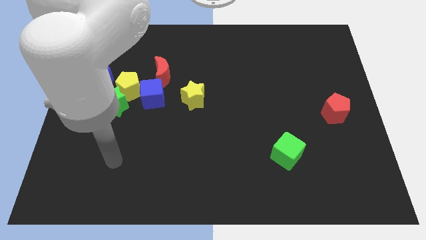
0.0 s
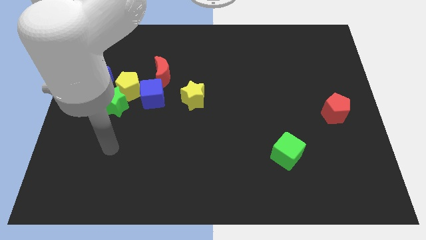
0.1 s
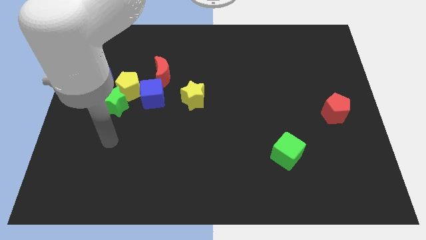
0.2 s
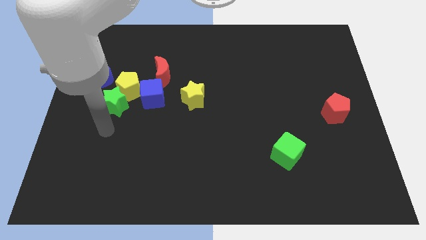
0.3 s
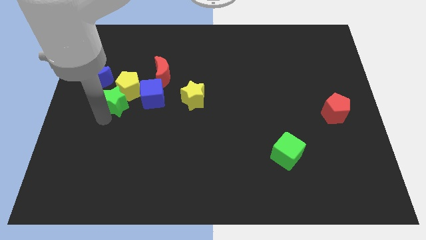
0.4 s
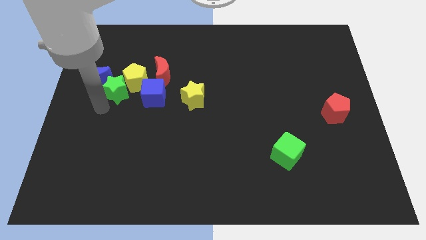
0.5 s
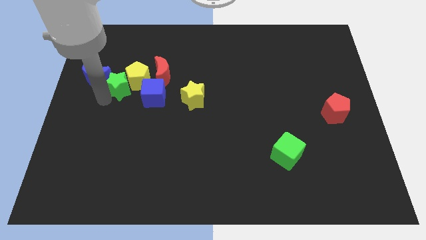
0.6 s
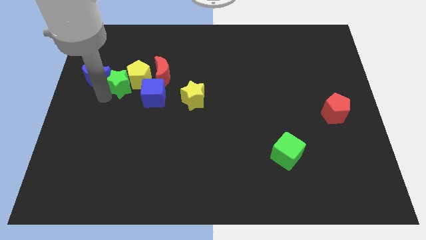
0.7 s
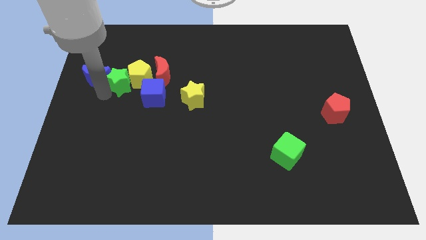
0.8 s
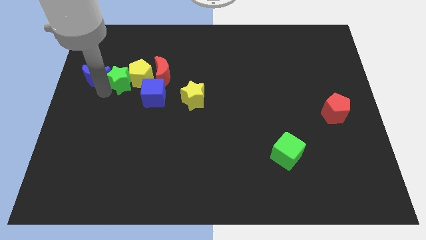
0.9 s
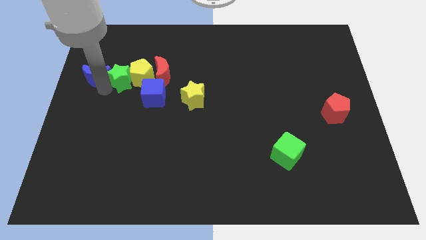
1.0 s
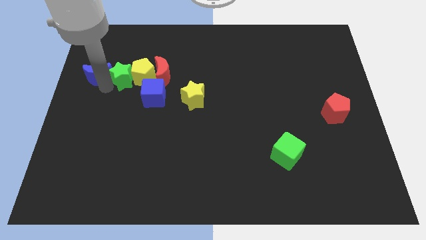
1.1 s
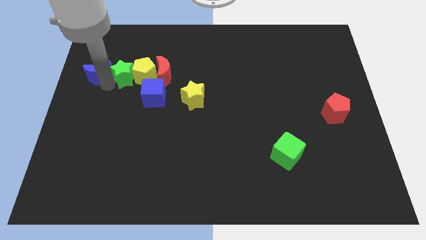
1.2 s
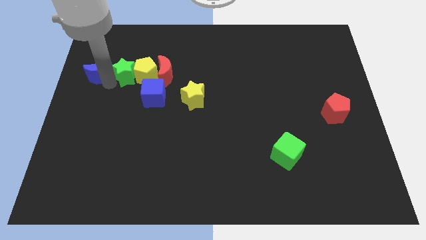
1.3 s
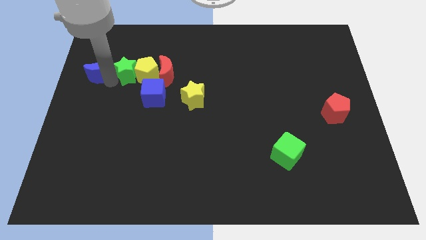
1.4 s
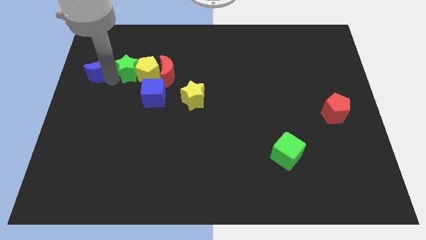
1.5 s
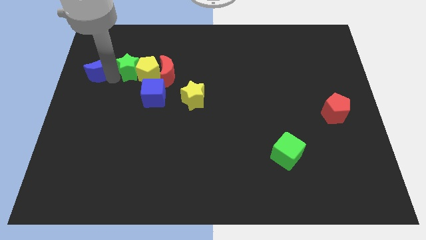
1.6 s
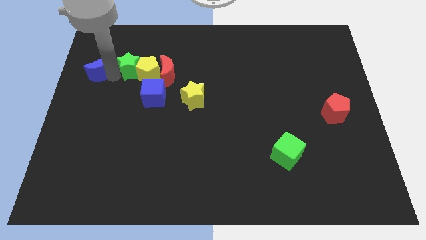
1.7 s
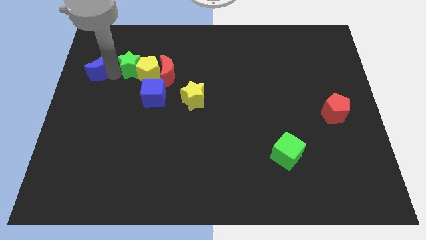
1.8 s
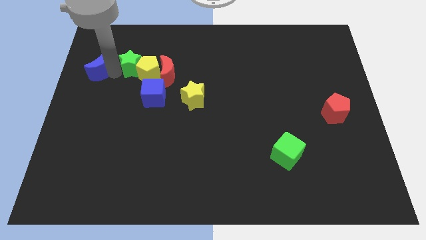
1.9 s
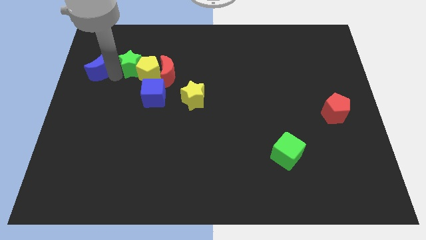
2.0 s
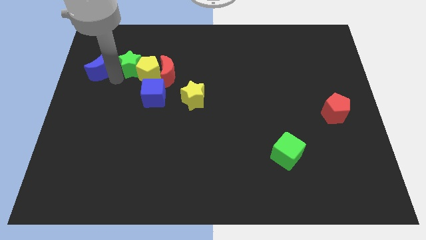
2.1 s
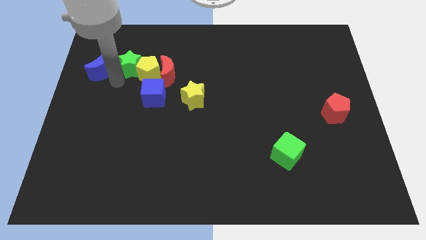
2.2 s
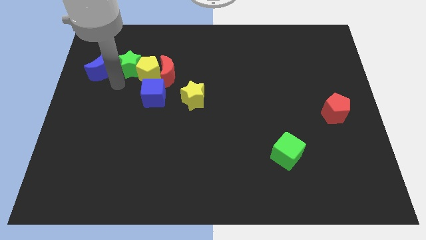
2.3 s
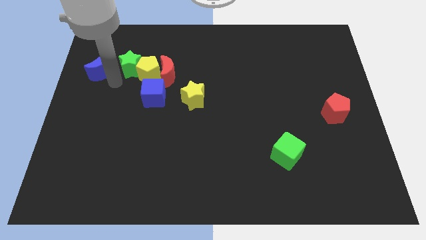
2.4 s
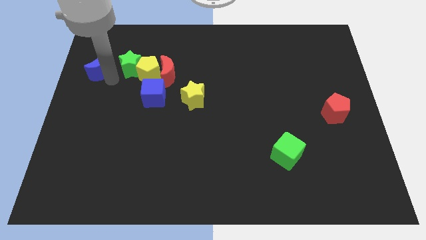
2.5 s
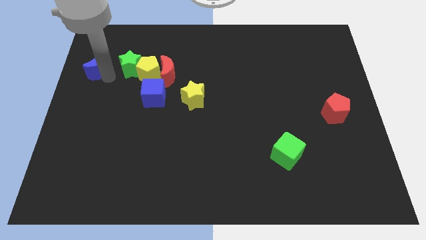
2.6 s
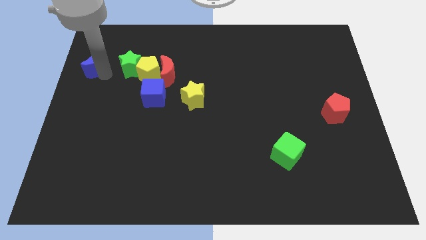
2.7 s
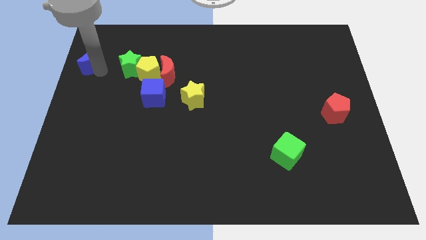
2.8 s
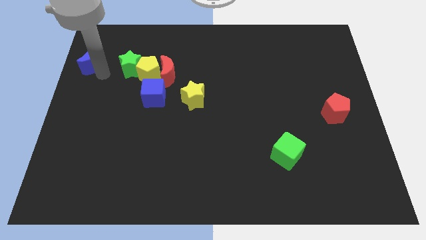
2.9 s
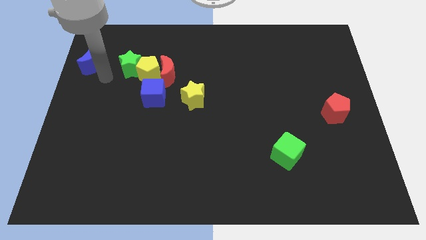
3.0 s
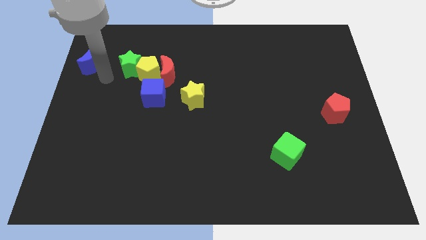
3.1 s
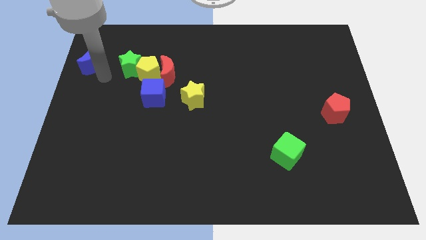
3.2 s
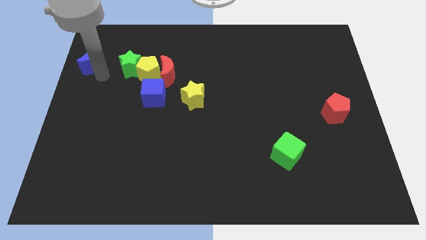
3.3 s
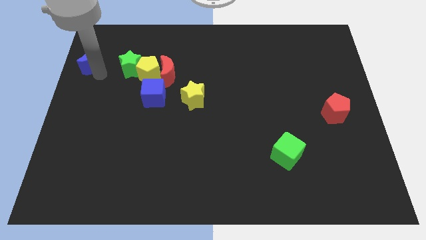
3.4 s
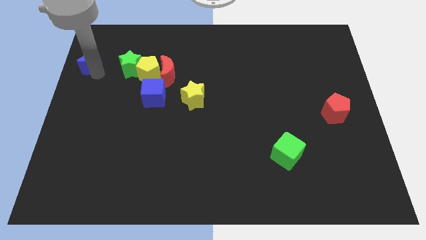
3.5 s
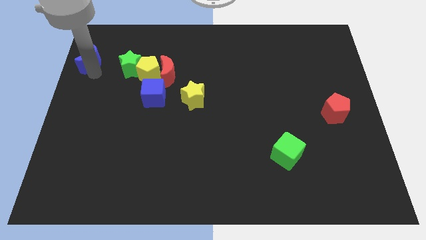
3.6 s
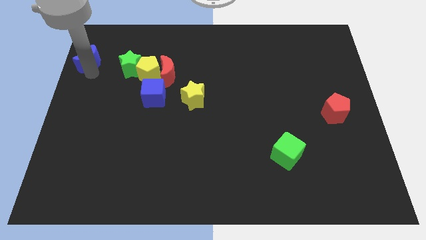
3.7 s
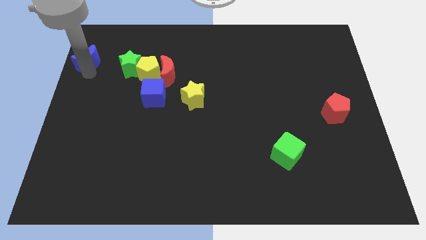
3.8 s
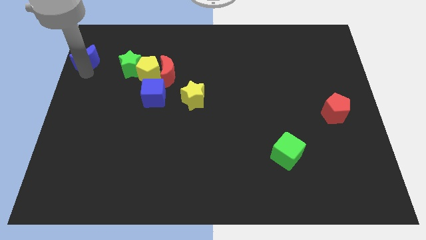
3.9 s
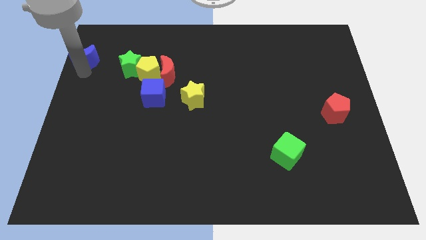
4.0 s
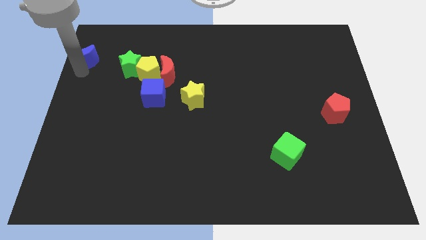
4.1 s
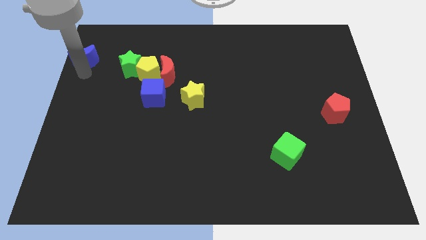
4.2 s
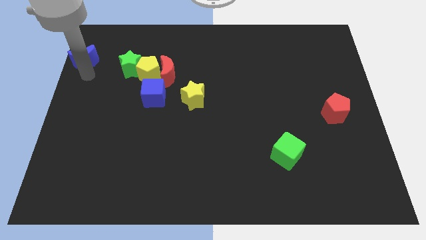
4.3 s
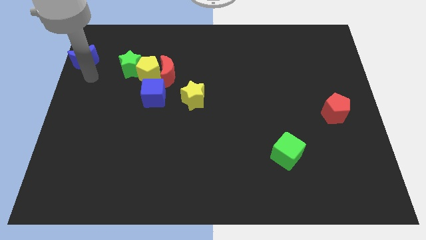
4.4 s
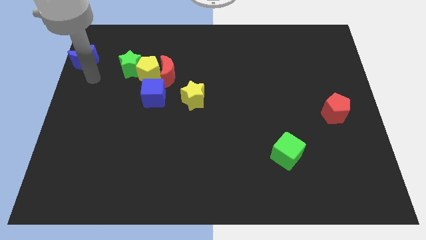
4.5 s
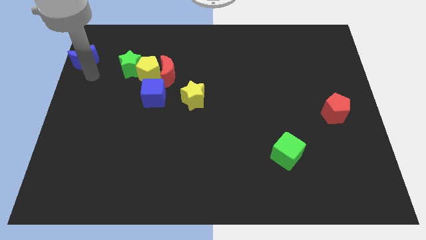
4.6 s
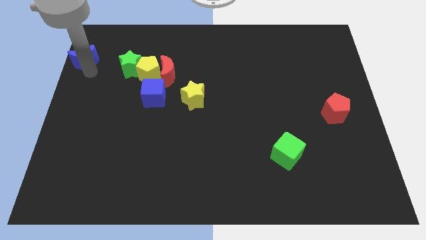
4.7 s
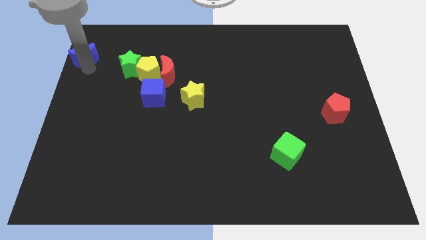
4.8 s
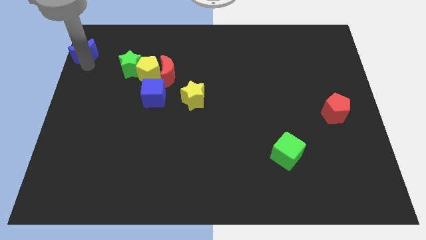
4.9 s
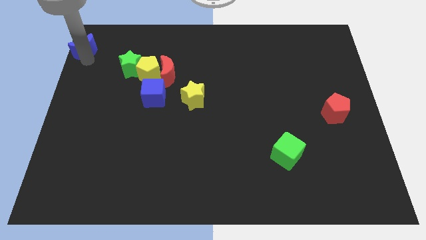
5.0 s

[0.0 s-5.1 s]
put the blue moon to the top left
